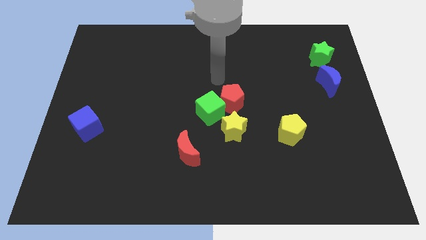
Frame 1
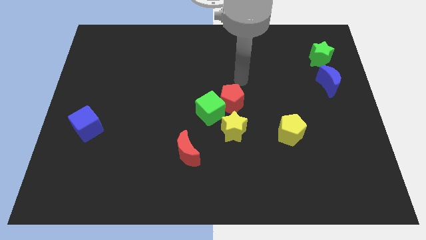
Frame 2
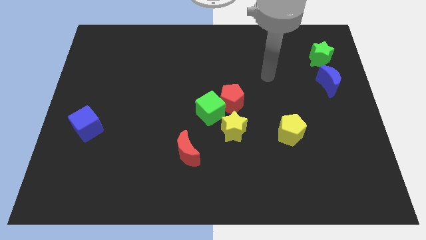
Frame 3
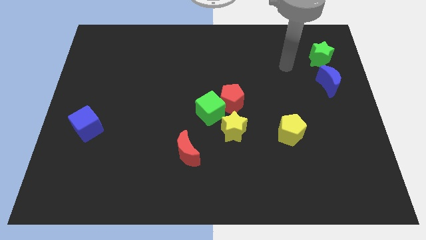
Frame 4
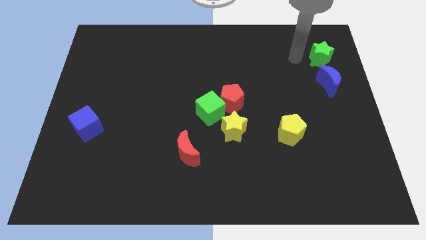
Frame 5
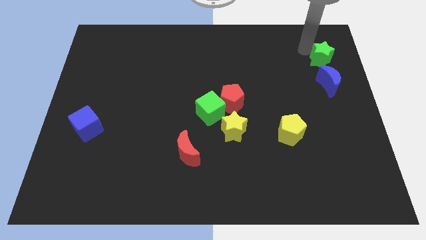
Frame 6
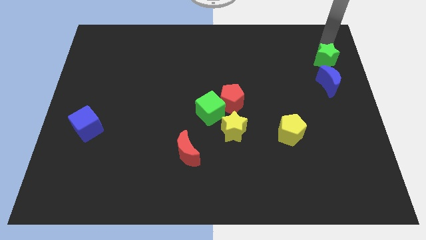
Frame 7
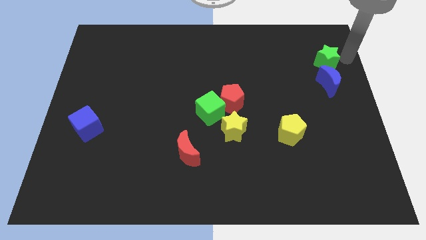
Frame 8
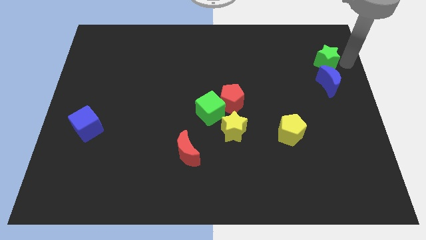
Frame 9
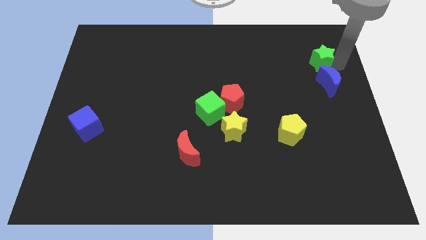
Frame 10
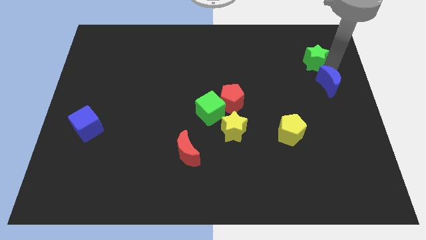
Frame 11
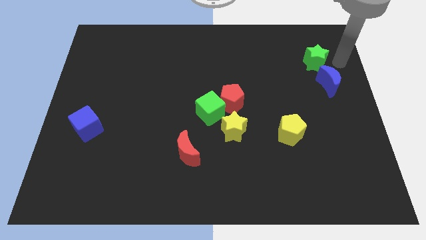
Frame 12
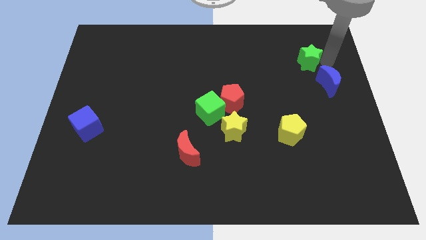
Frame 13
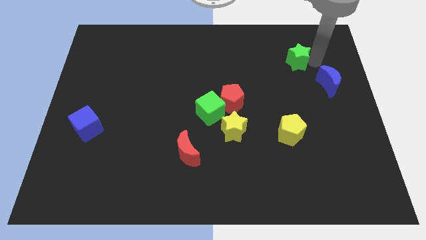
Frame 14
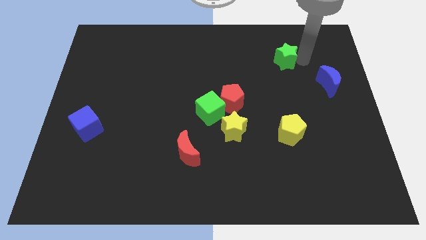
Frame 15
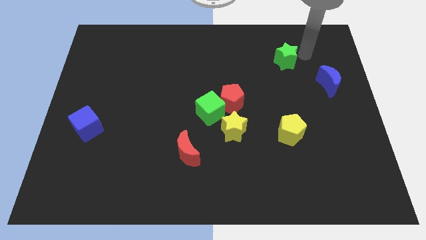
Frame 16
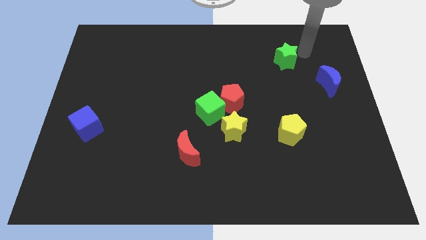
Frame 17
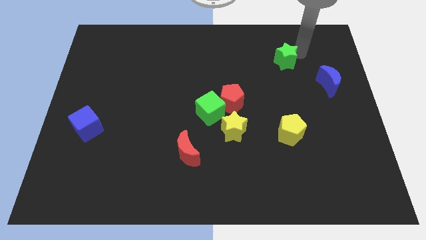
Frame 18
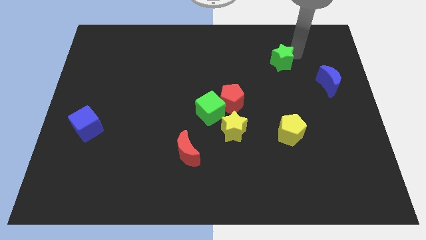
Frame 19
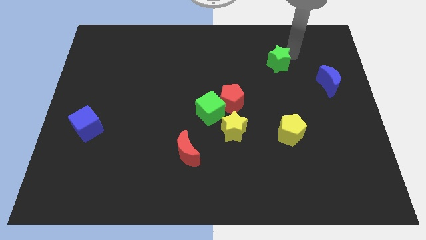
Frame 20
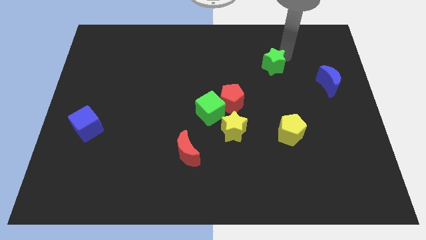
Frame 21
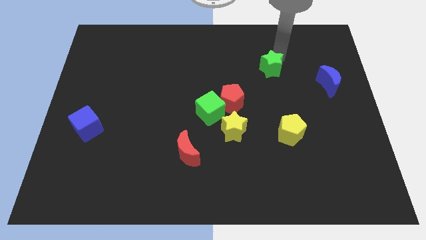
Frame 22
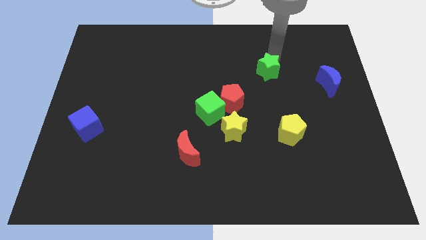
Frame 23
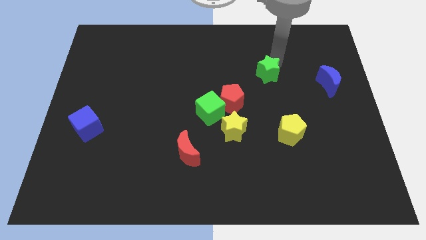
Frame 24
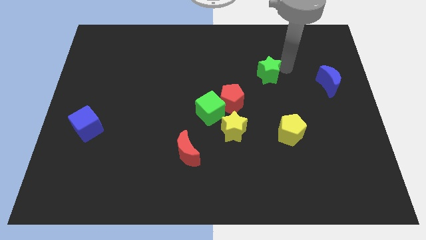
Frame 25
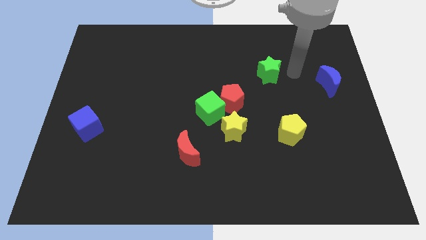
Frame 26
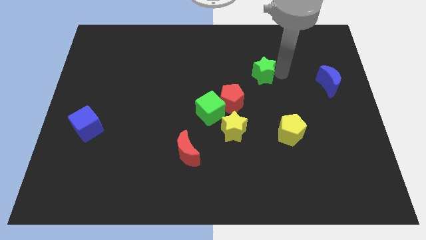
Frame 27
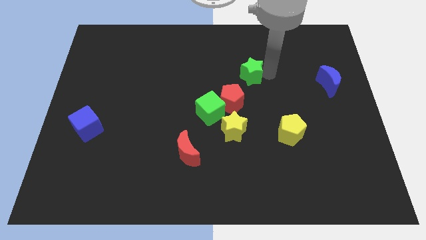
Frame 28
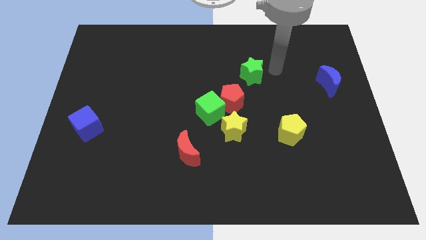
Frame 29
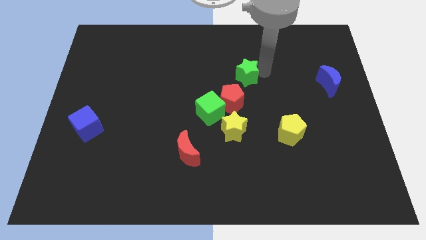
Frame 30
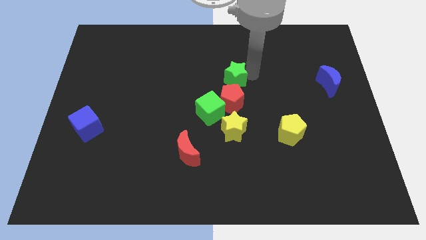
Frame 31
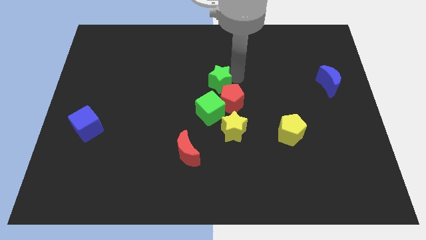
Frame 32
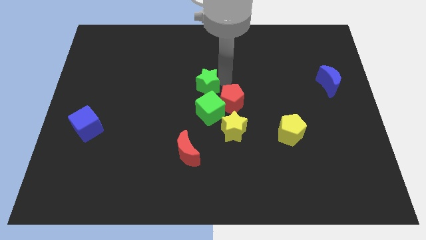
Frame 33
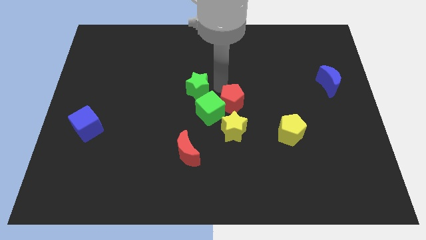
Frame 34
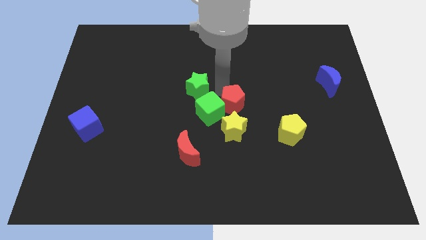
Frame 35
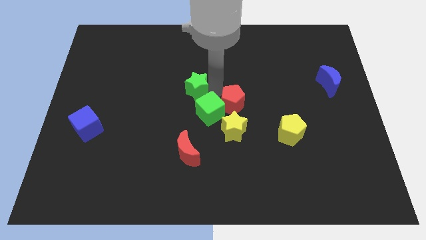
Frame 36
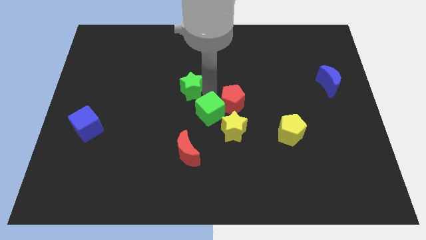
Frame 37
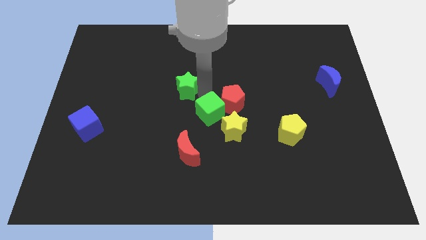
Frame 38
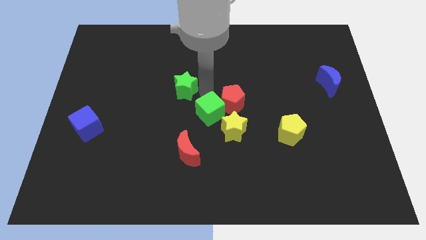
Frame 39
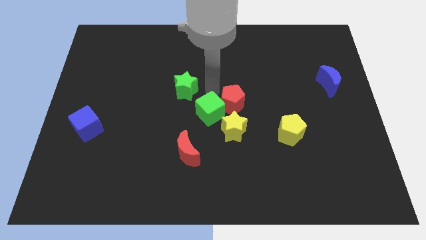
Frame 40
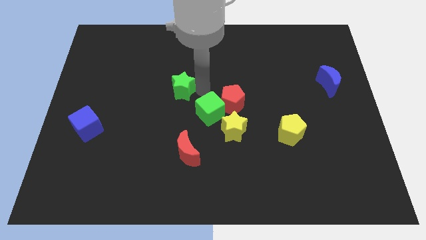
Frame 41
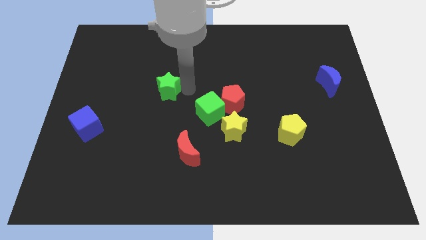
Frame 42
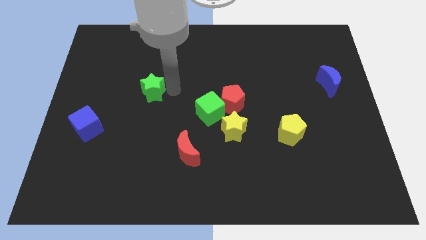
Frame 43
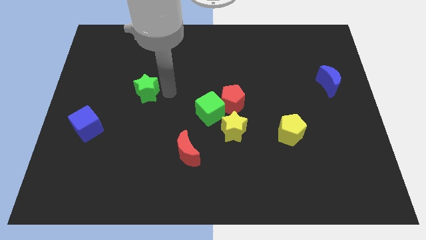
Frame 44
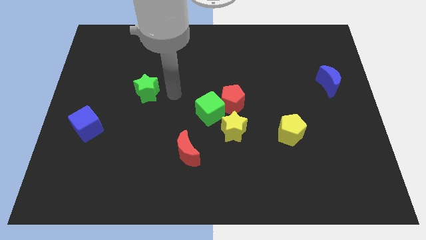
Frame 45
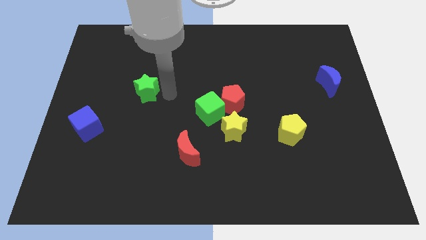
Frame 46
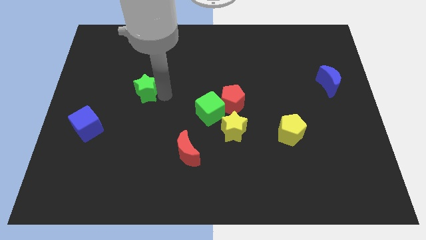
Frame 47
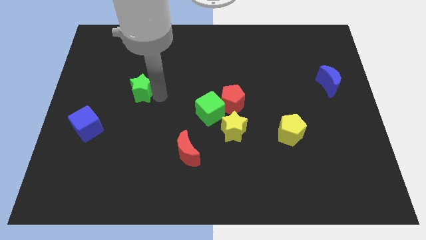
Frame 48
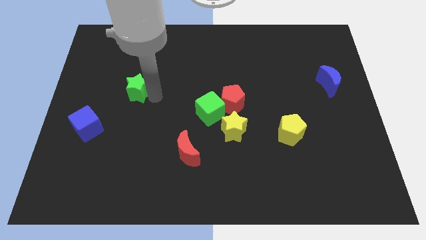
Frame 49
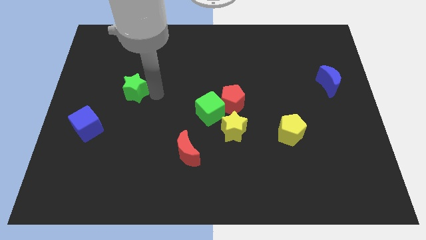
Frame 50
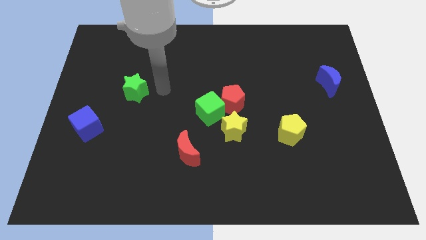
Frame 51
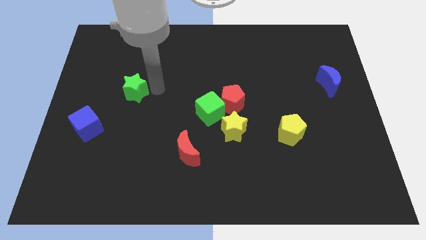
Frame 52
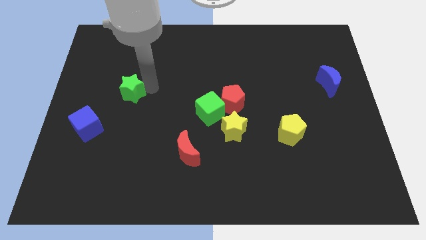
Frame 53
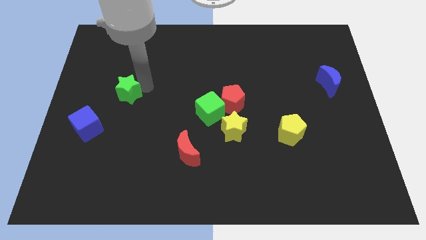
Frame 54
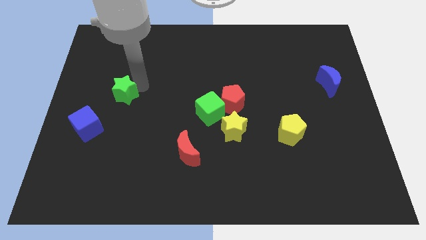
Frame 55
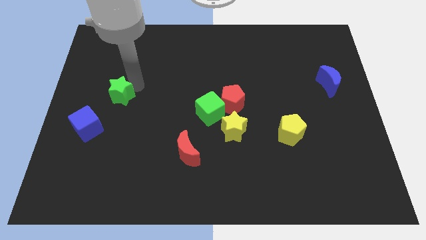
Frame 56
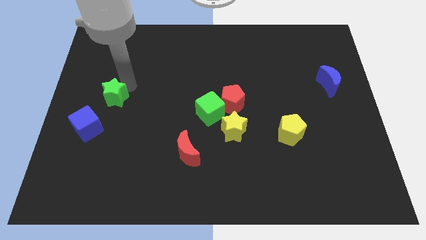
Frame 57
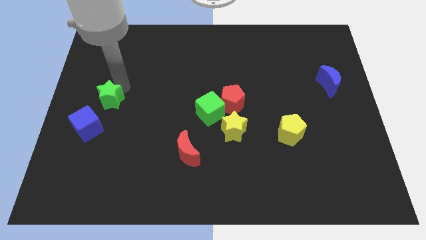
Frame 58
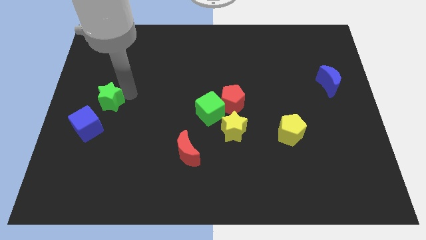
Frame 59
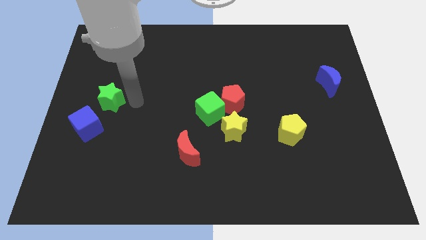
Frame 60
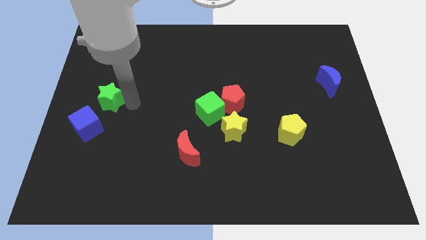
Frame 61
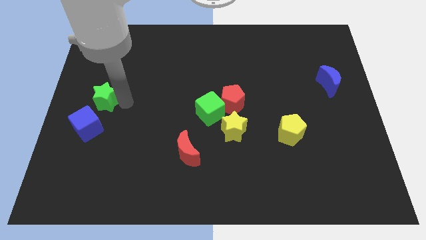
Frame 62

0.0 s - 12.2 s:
put the green star to the left side of the board

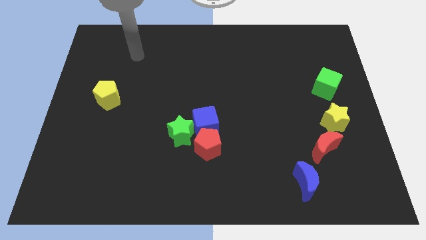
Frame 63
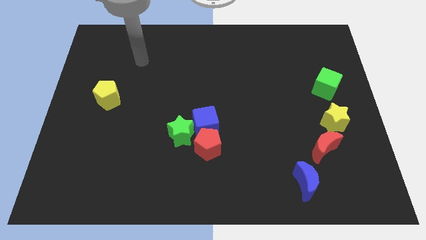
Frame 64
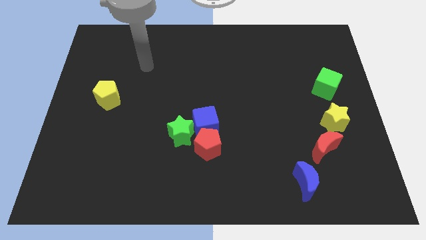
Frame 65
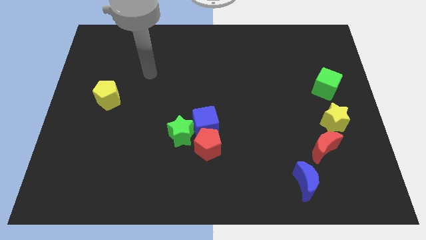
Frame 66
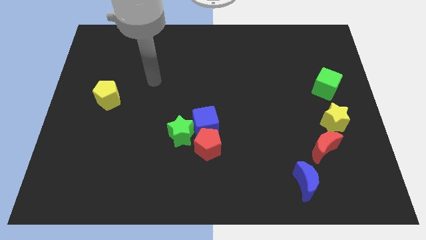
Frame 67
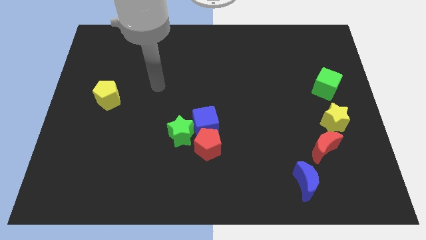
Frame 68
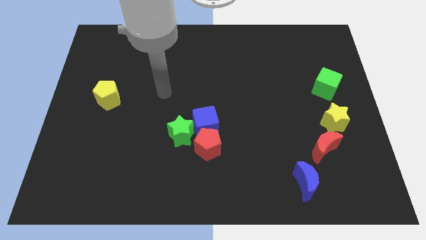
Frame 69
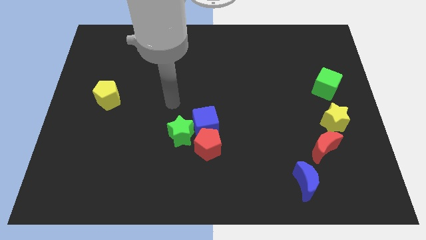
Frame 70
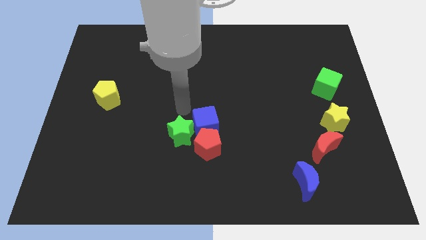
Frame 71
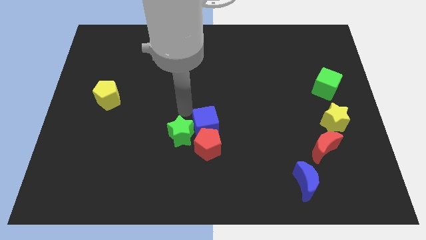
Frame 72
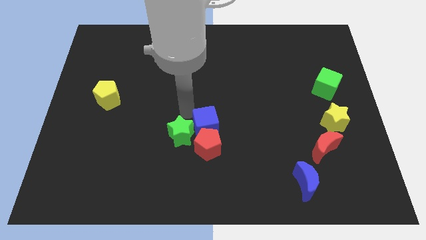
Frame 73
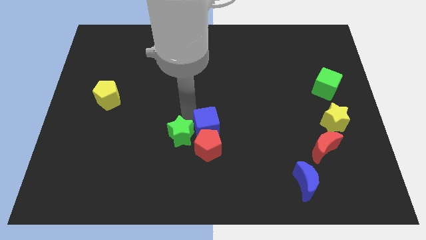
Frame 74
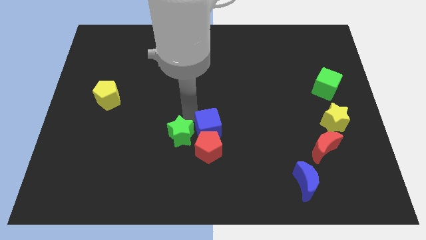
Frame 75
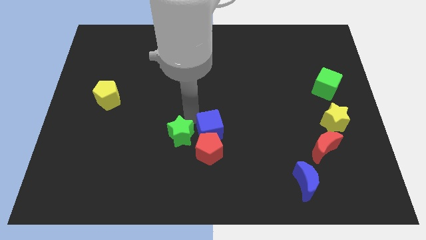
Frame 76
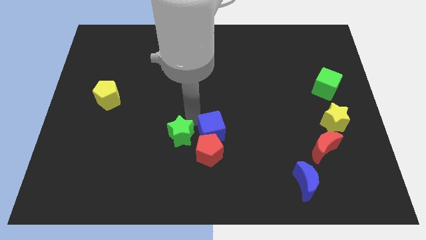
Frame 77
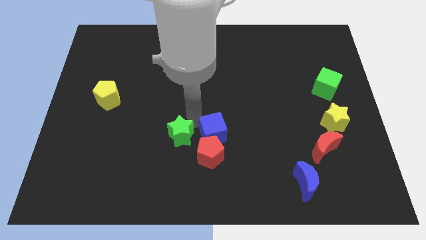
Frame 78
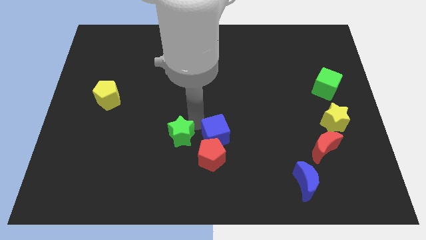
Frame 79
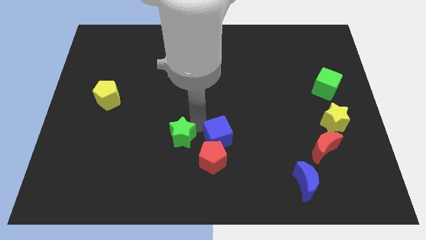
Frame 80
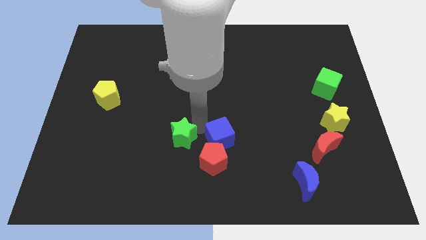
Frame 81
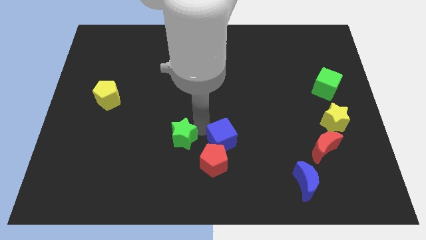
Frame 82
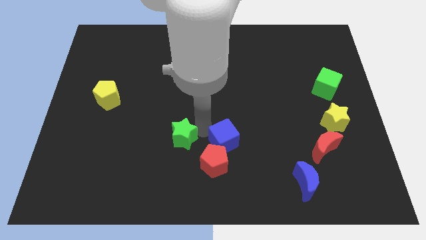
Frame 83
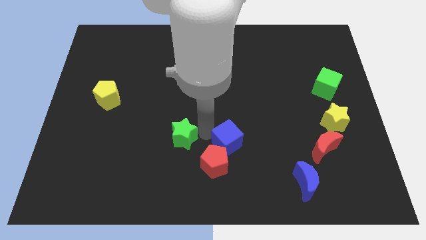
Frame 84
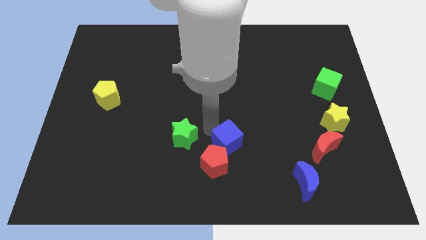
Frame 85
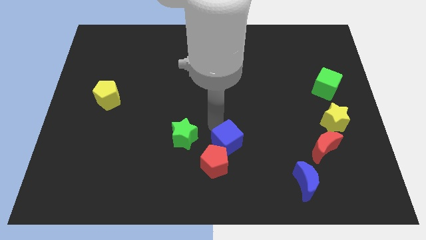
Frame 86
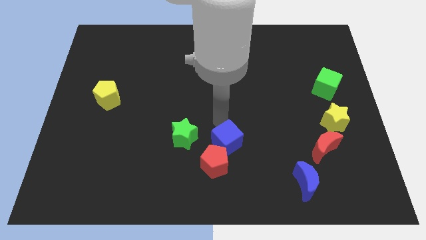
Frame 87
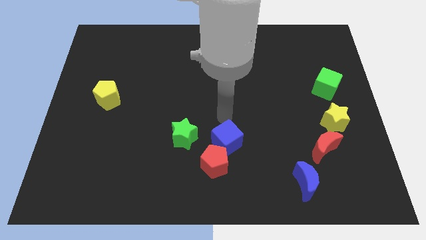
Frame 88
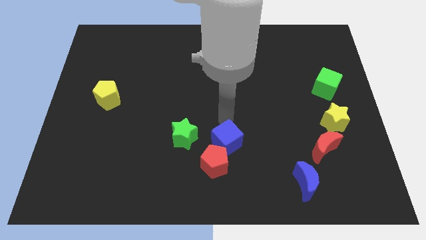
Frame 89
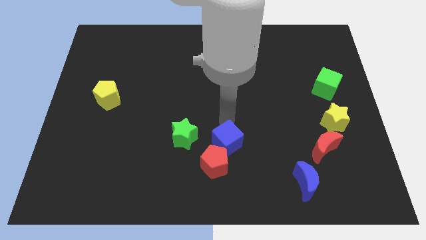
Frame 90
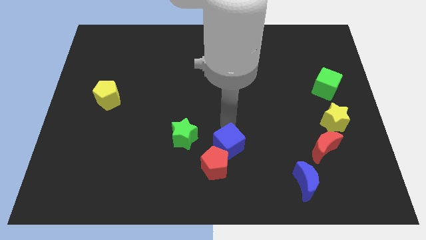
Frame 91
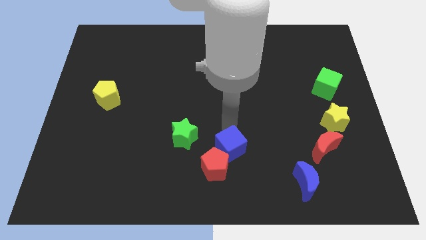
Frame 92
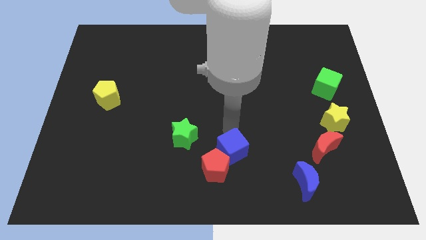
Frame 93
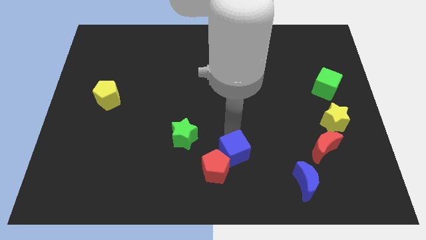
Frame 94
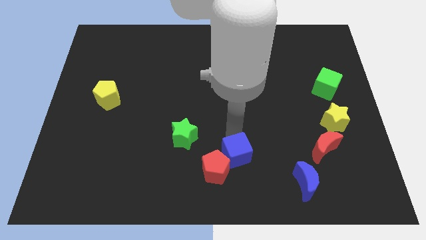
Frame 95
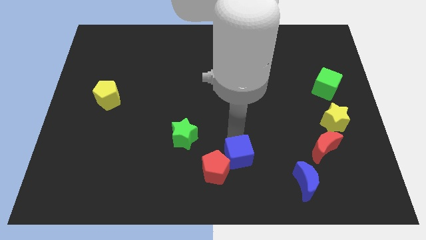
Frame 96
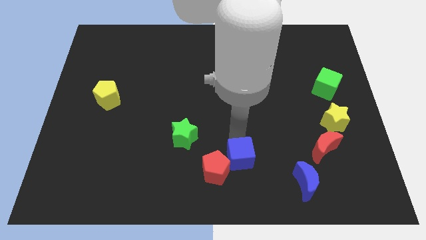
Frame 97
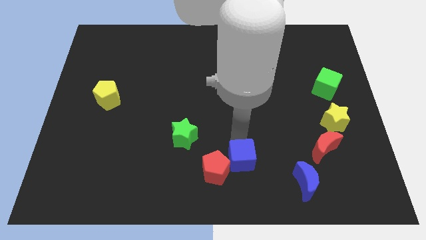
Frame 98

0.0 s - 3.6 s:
move the blue cube to the bottom
